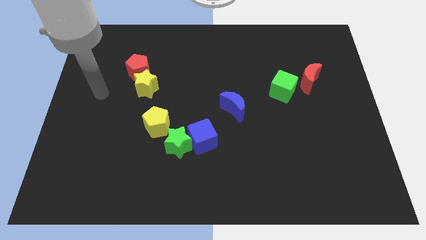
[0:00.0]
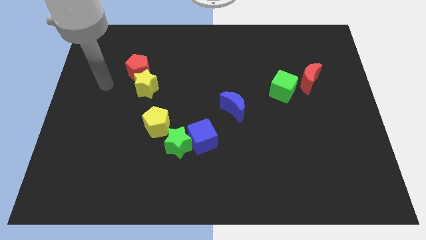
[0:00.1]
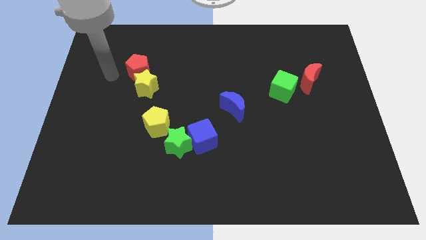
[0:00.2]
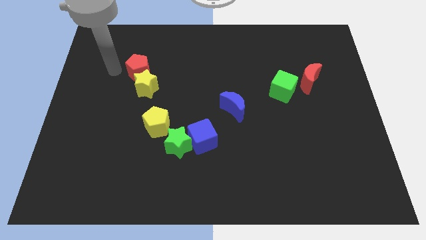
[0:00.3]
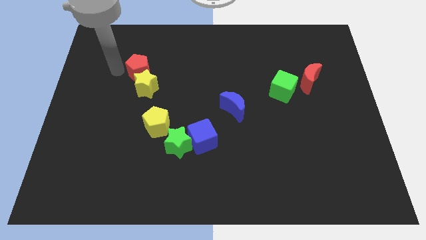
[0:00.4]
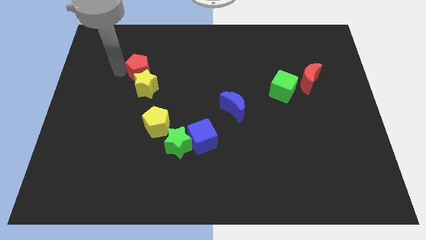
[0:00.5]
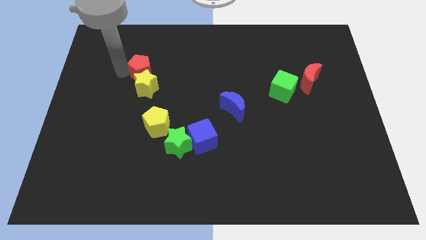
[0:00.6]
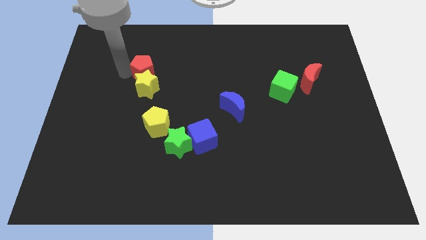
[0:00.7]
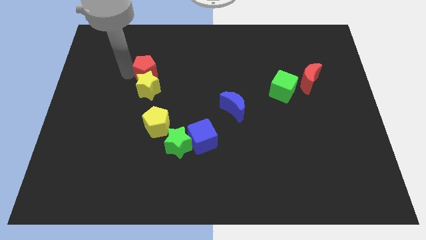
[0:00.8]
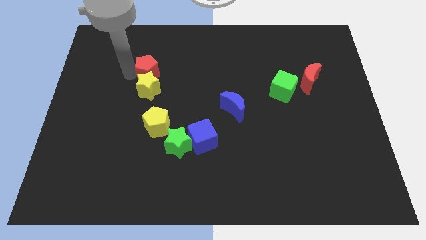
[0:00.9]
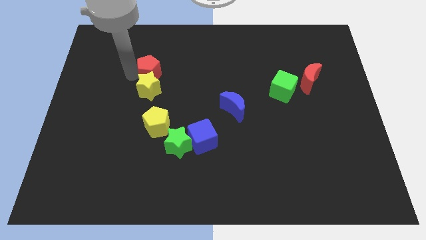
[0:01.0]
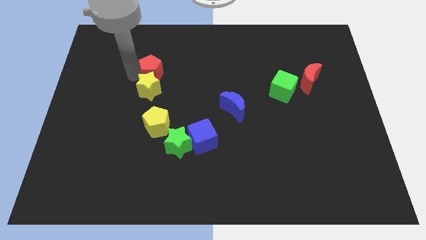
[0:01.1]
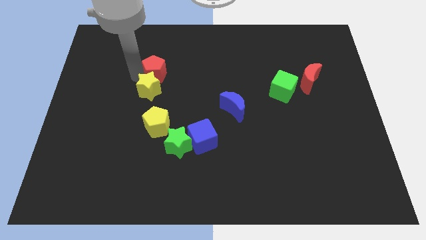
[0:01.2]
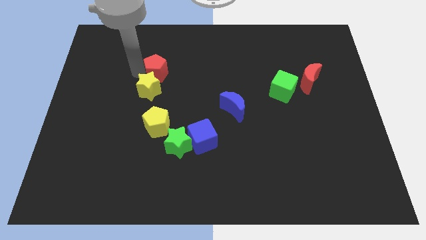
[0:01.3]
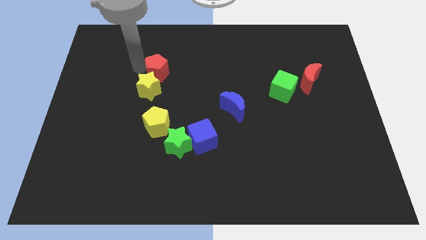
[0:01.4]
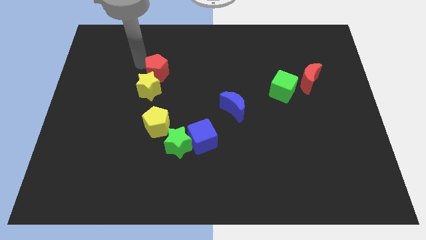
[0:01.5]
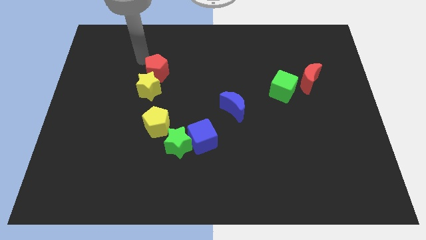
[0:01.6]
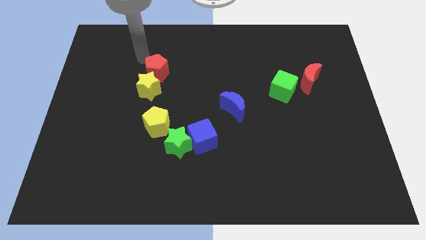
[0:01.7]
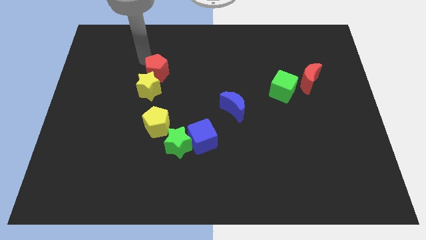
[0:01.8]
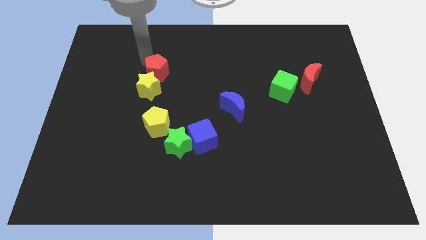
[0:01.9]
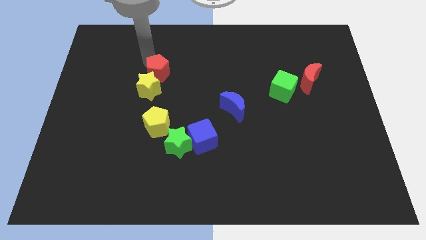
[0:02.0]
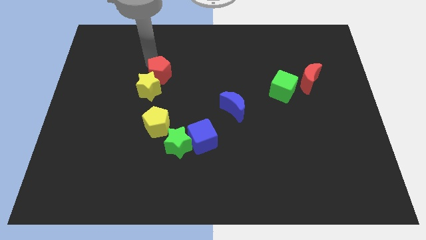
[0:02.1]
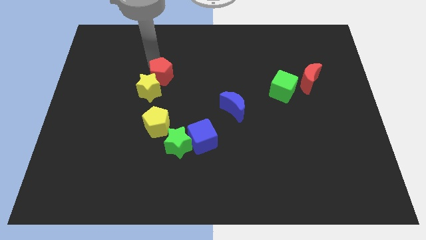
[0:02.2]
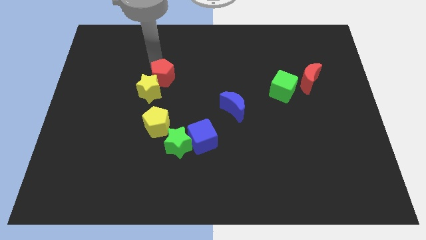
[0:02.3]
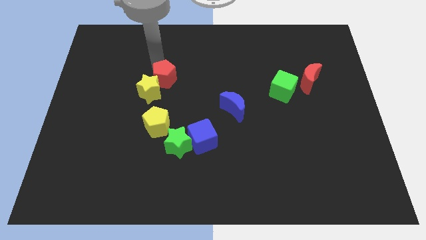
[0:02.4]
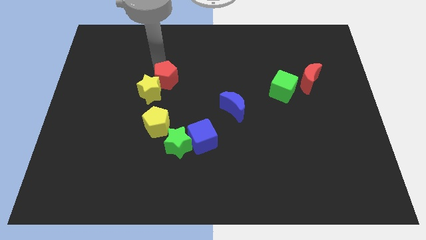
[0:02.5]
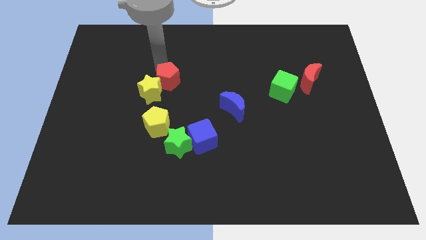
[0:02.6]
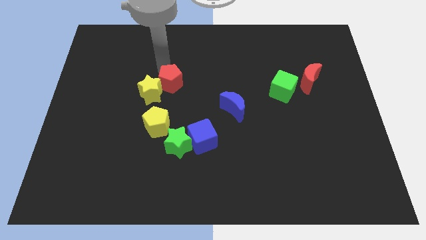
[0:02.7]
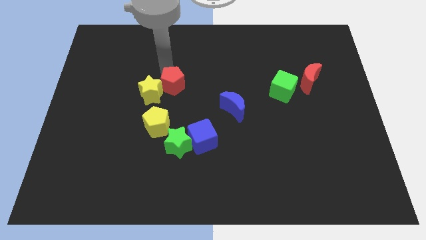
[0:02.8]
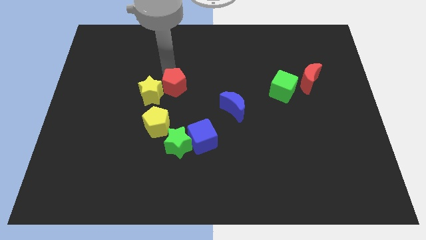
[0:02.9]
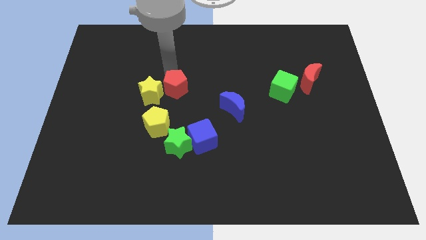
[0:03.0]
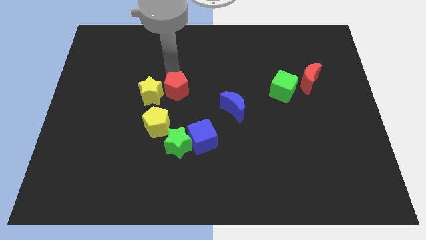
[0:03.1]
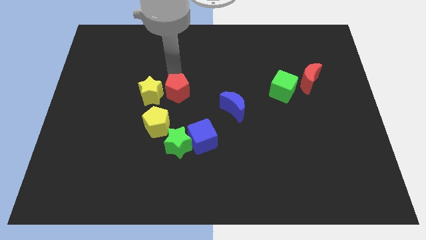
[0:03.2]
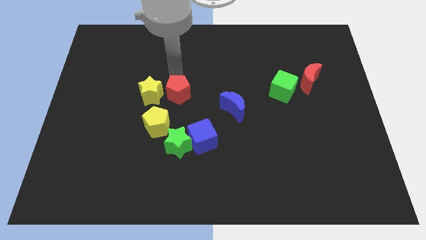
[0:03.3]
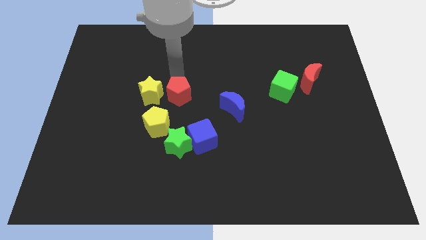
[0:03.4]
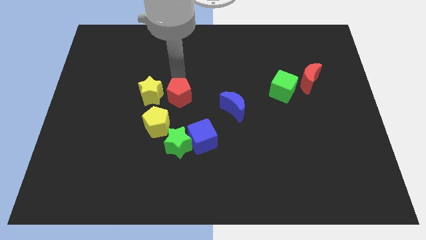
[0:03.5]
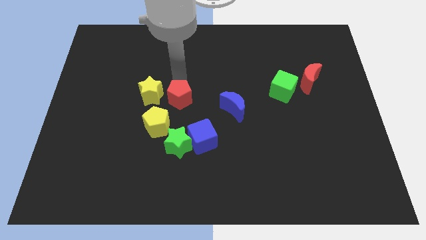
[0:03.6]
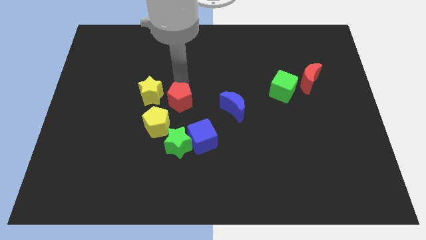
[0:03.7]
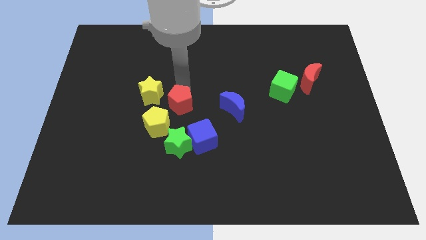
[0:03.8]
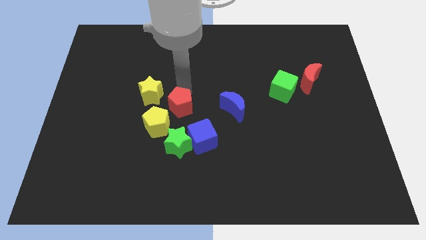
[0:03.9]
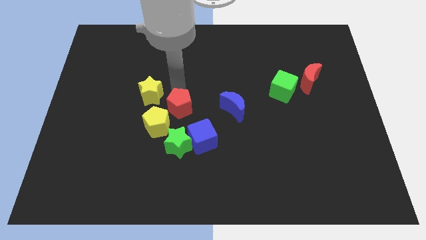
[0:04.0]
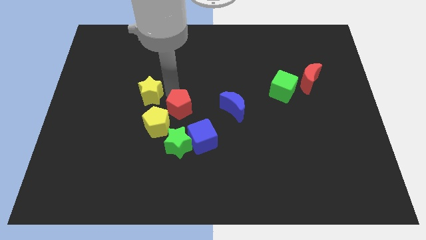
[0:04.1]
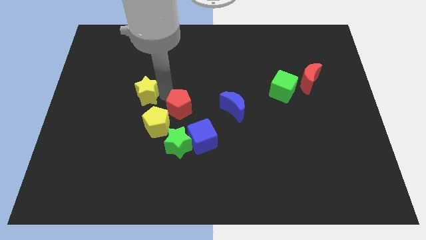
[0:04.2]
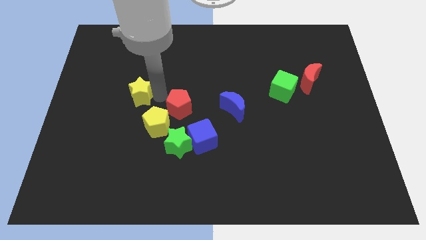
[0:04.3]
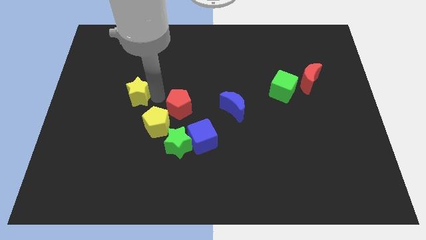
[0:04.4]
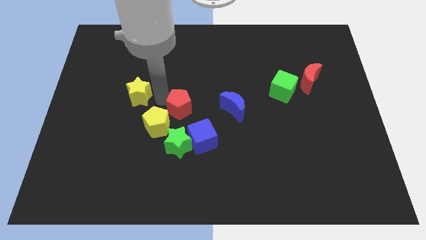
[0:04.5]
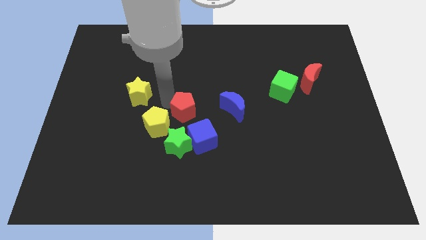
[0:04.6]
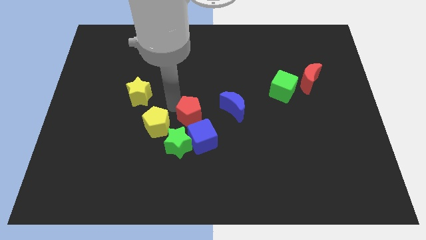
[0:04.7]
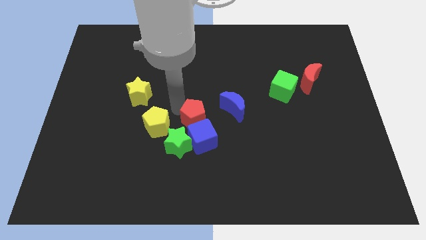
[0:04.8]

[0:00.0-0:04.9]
slide the red pentagon down and then to the right

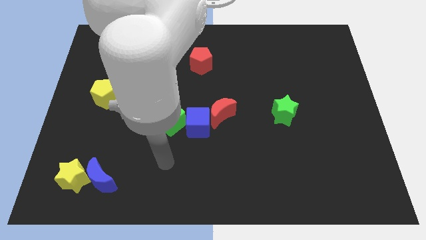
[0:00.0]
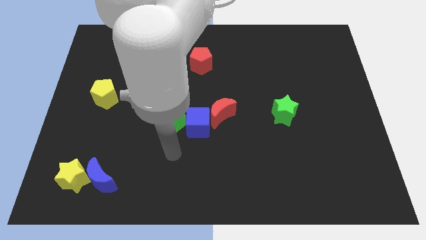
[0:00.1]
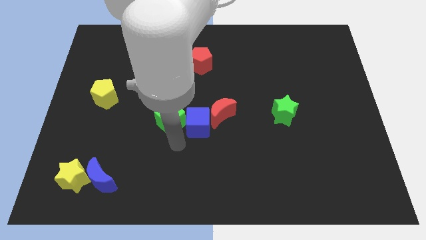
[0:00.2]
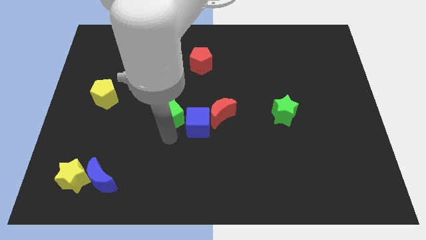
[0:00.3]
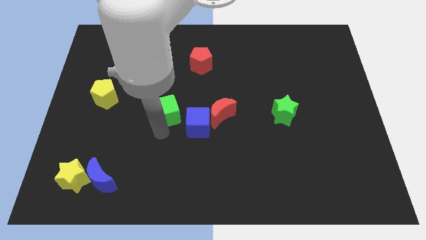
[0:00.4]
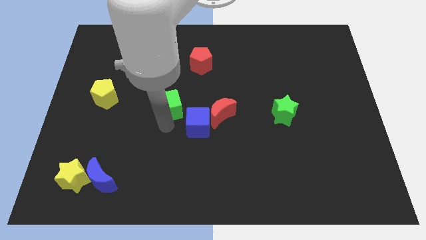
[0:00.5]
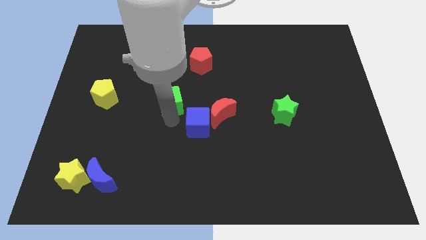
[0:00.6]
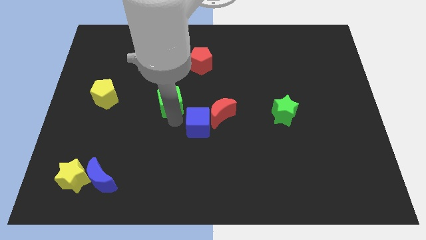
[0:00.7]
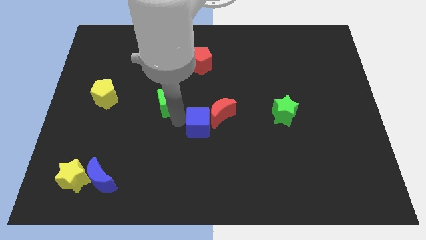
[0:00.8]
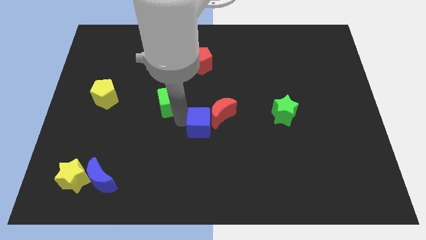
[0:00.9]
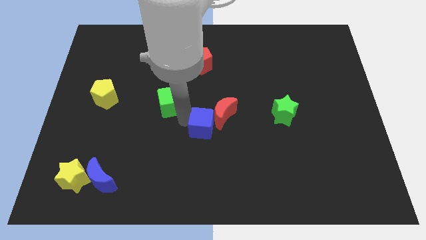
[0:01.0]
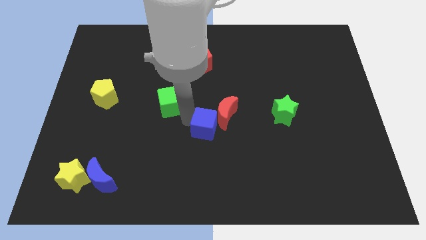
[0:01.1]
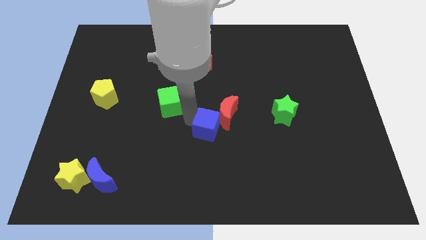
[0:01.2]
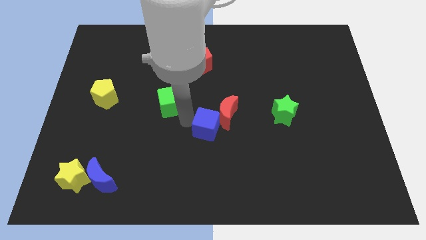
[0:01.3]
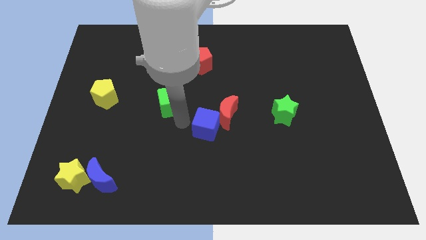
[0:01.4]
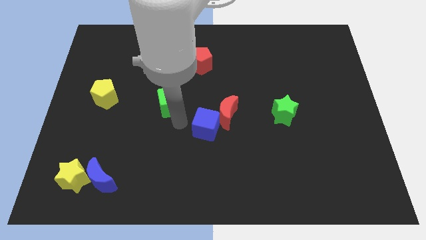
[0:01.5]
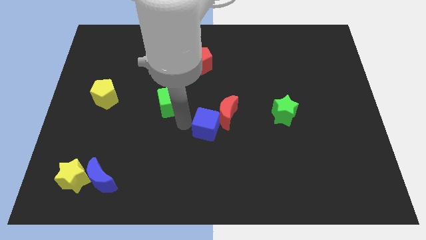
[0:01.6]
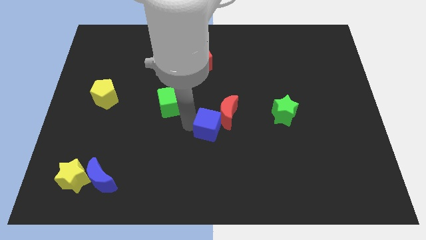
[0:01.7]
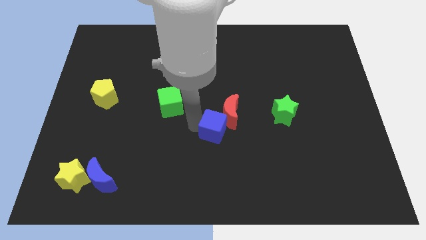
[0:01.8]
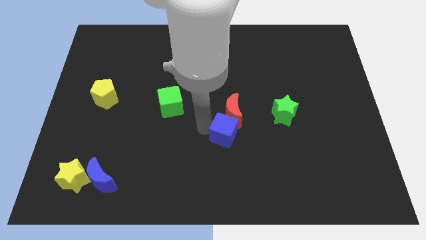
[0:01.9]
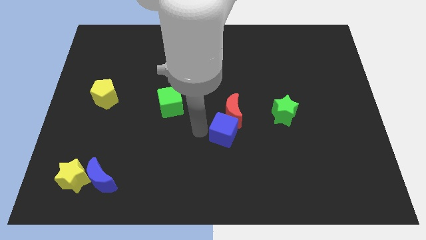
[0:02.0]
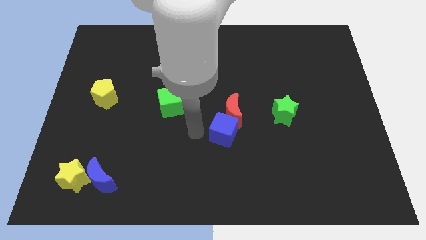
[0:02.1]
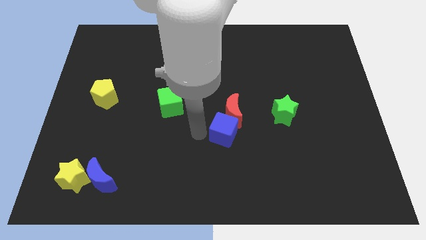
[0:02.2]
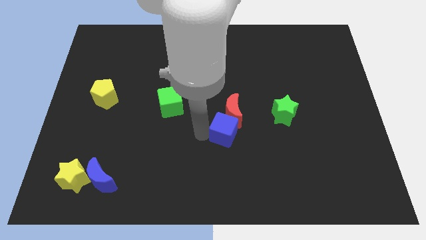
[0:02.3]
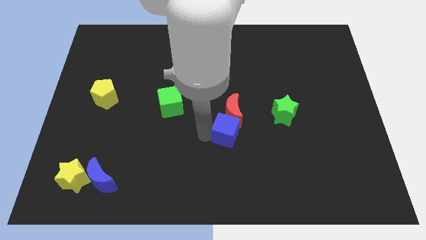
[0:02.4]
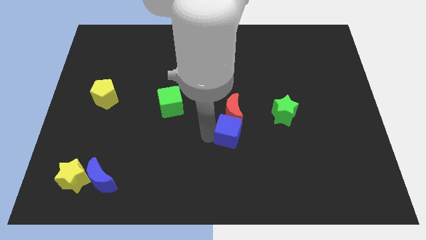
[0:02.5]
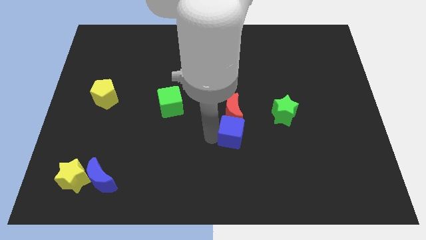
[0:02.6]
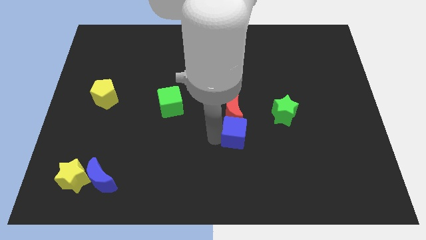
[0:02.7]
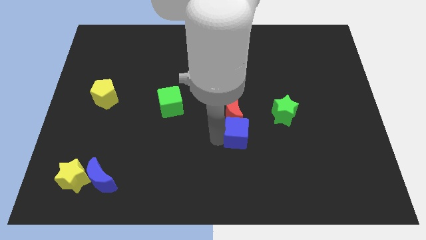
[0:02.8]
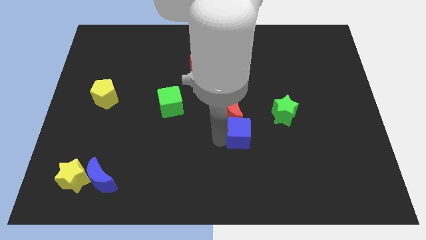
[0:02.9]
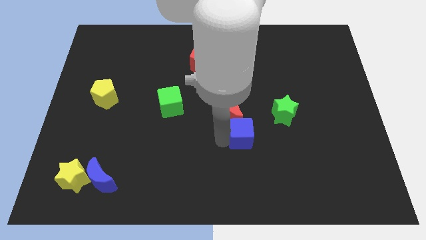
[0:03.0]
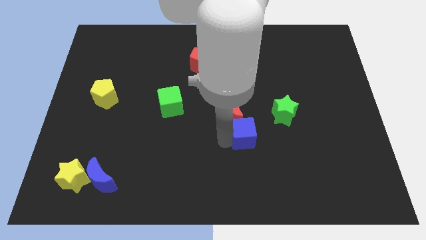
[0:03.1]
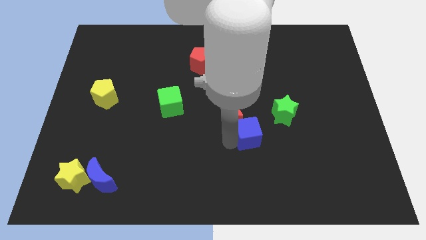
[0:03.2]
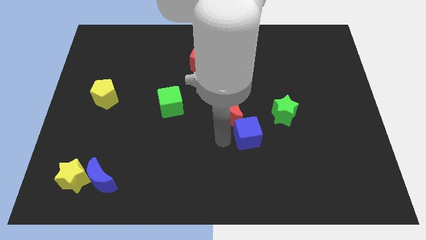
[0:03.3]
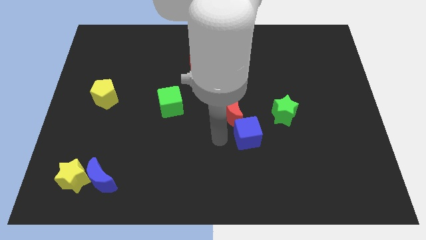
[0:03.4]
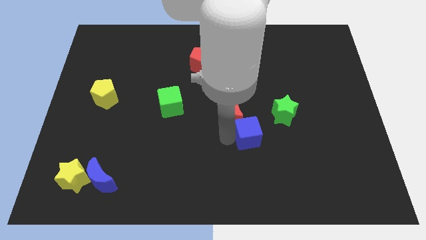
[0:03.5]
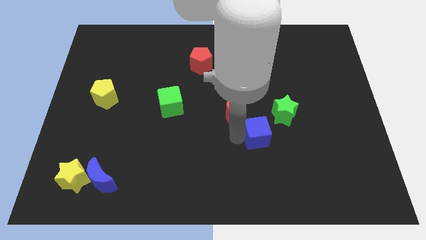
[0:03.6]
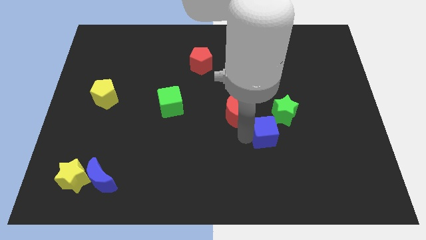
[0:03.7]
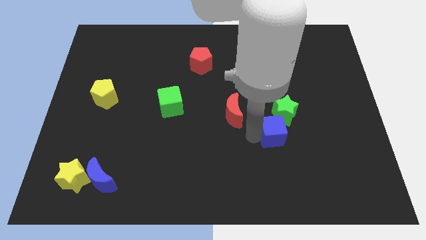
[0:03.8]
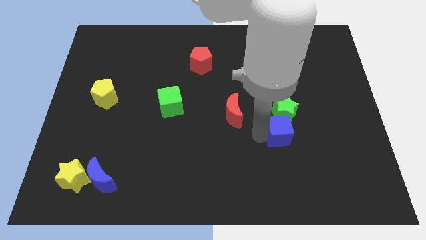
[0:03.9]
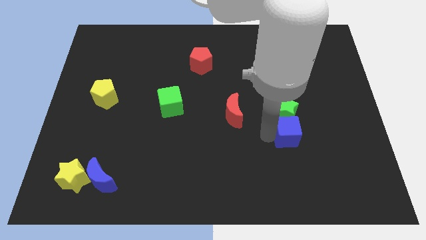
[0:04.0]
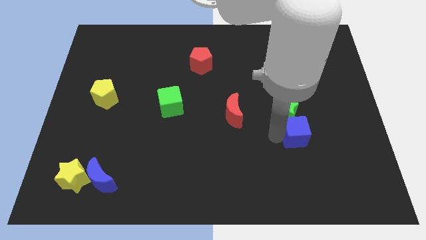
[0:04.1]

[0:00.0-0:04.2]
move the blue cube right
